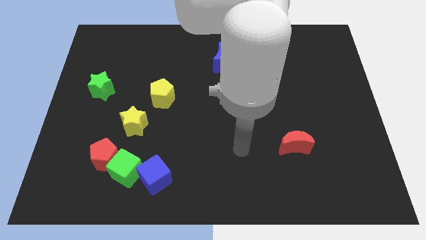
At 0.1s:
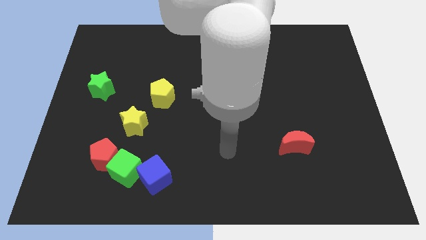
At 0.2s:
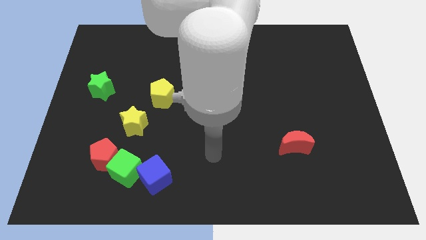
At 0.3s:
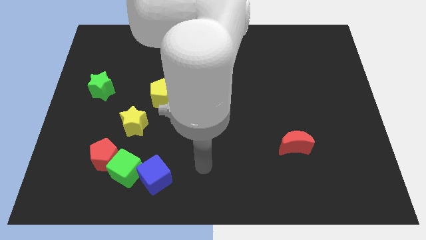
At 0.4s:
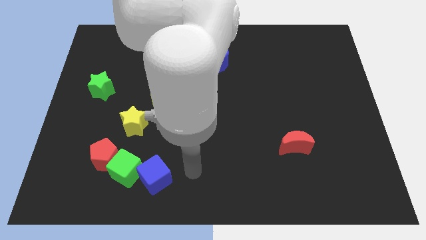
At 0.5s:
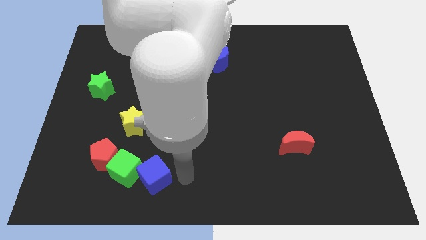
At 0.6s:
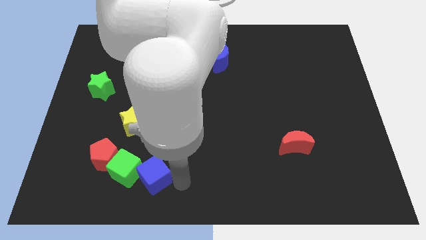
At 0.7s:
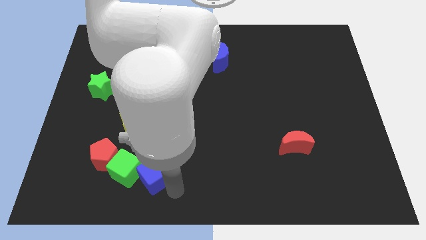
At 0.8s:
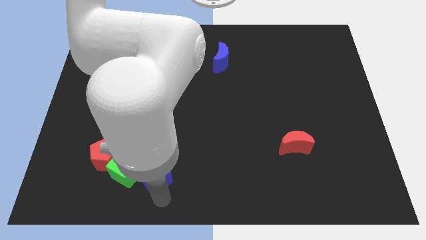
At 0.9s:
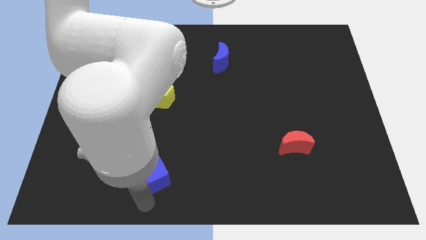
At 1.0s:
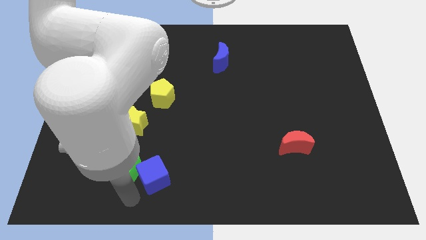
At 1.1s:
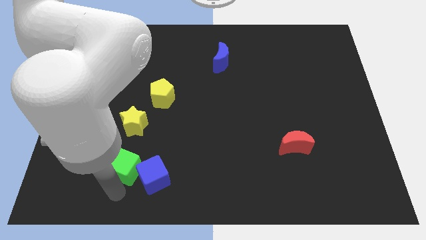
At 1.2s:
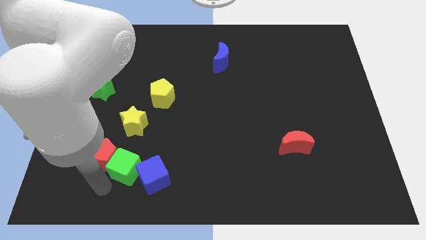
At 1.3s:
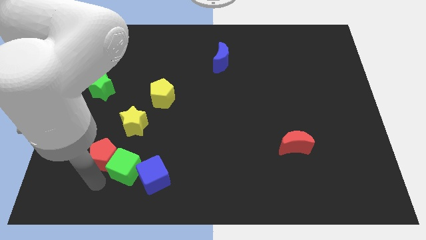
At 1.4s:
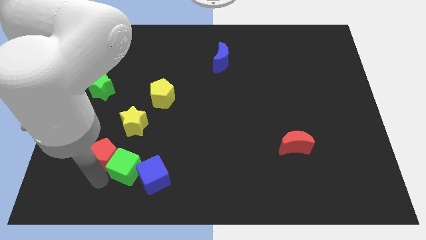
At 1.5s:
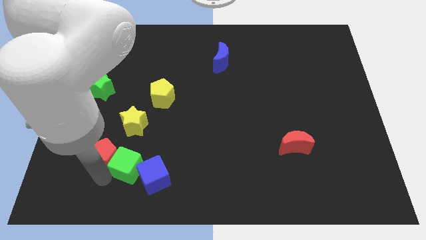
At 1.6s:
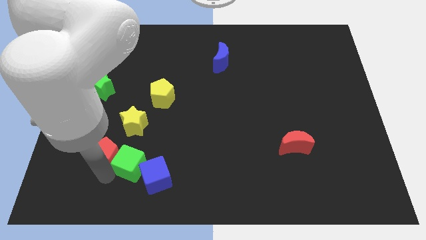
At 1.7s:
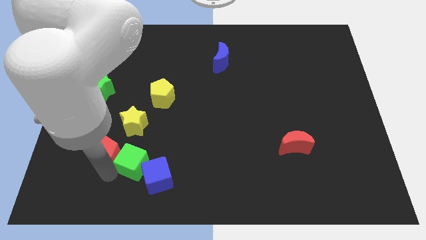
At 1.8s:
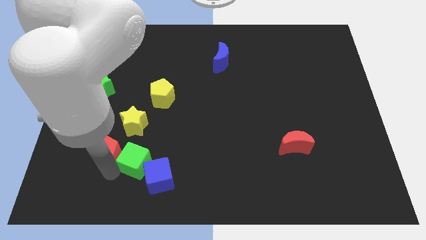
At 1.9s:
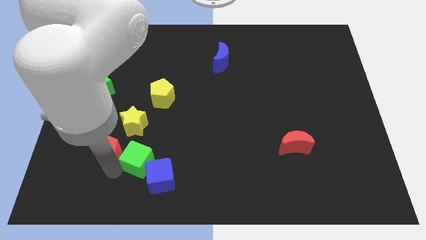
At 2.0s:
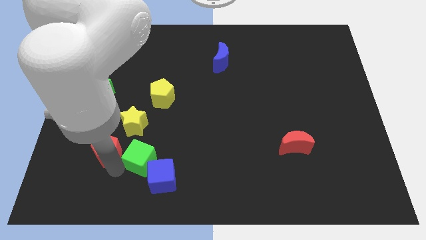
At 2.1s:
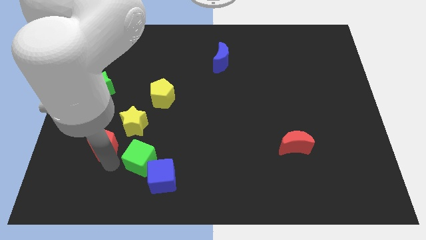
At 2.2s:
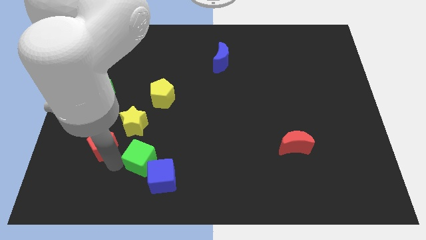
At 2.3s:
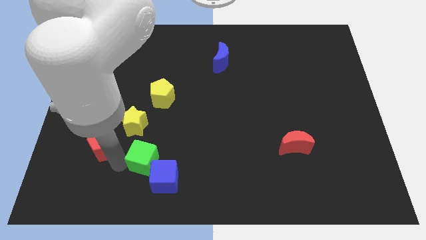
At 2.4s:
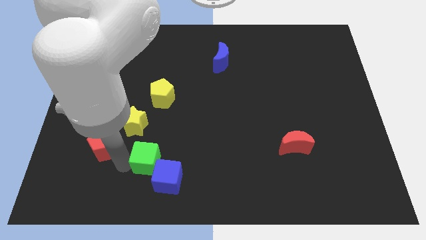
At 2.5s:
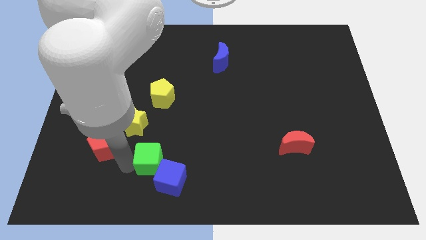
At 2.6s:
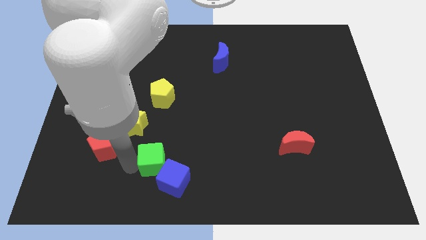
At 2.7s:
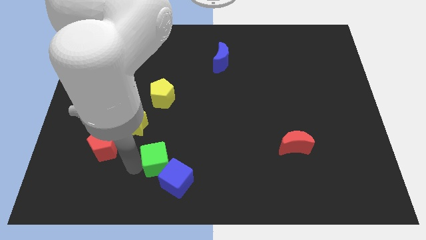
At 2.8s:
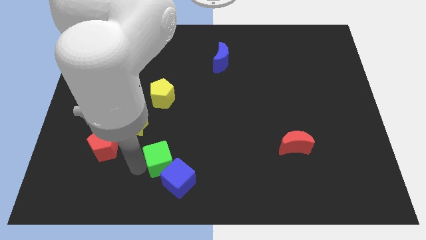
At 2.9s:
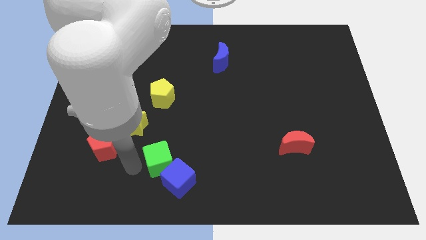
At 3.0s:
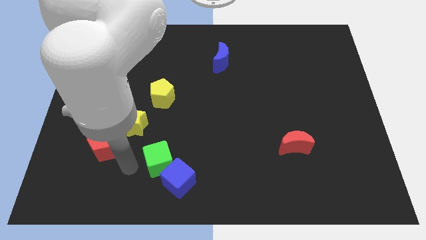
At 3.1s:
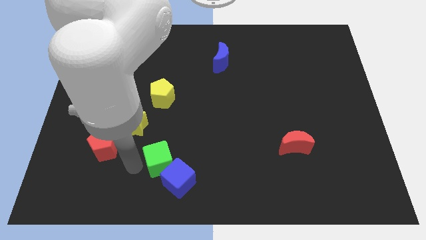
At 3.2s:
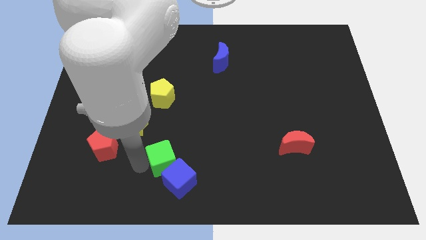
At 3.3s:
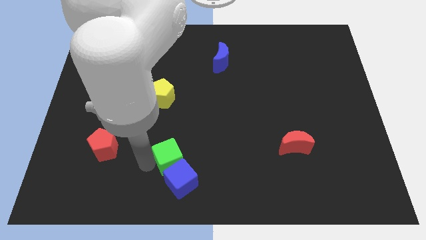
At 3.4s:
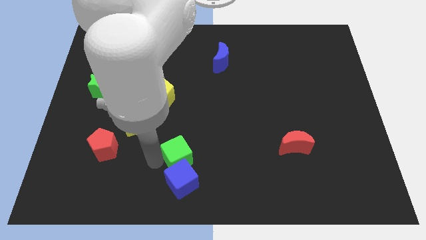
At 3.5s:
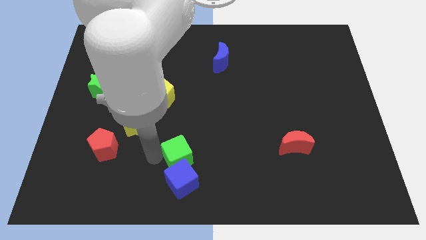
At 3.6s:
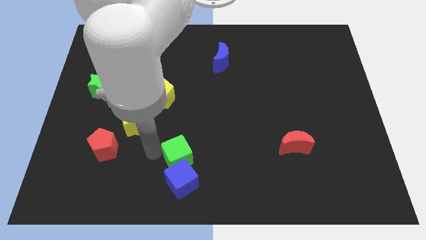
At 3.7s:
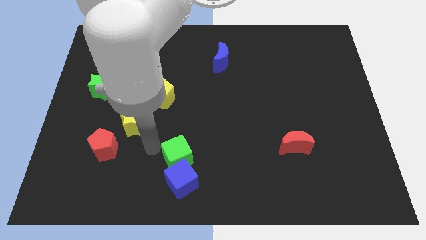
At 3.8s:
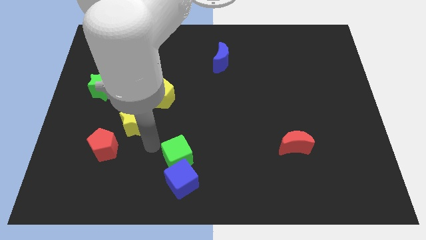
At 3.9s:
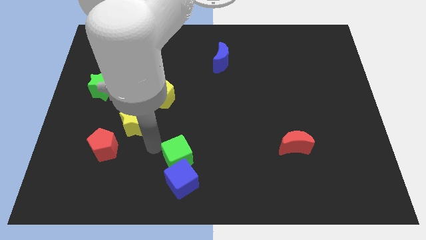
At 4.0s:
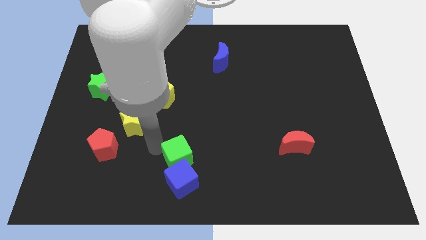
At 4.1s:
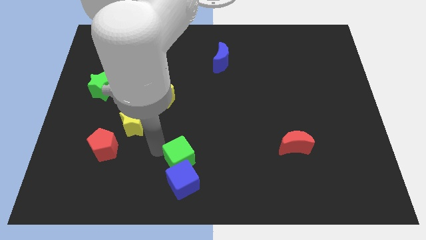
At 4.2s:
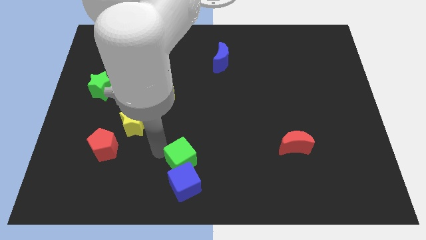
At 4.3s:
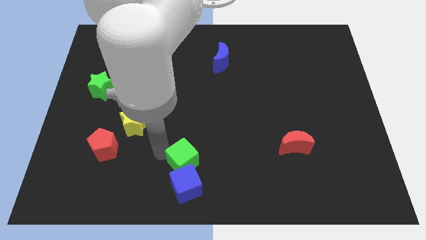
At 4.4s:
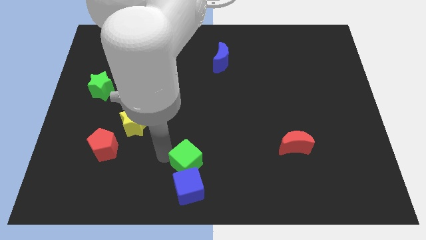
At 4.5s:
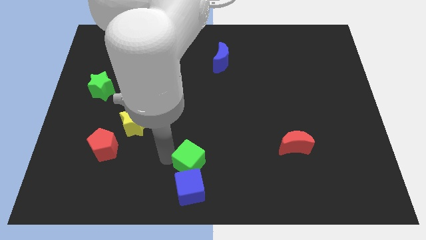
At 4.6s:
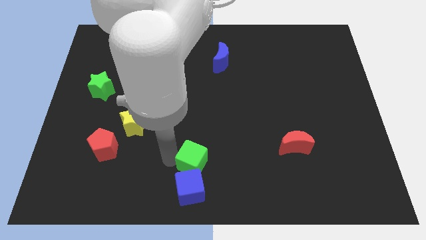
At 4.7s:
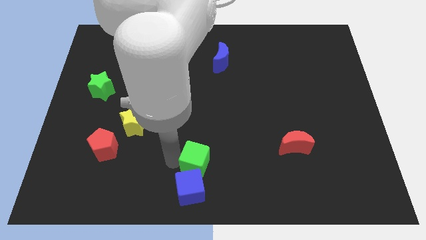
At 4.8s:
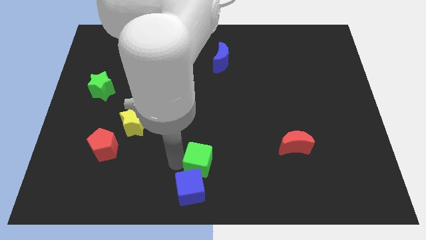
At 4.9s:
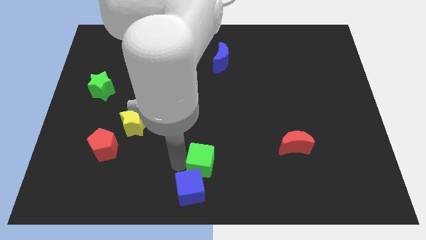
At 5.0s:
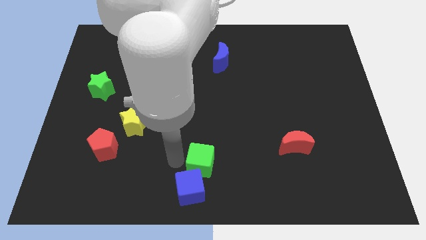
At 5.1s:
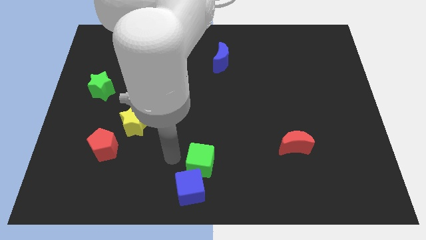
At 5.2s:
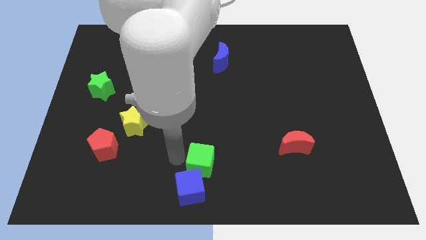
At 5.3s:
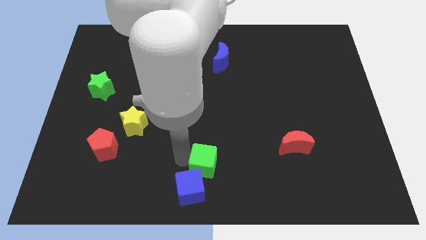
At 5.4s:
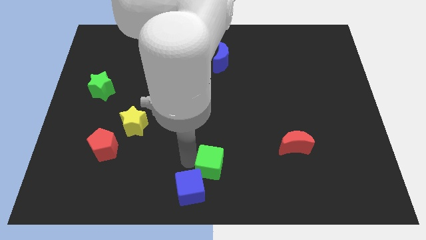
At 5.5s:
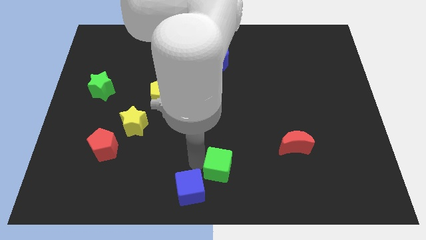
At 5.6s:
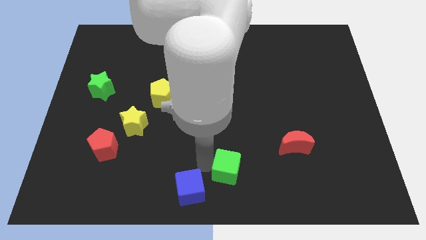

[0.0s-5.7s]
push the green cube right

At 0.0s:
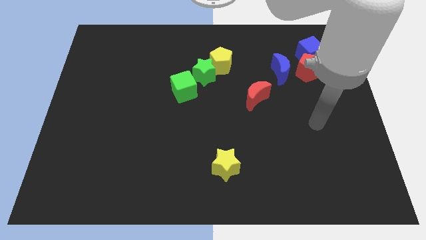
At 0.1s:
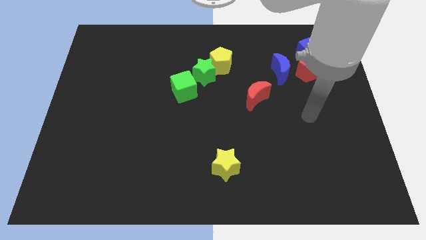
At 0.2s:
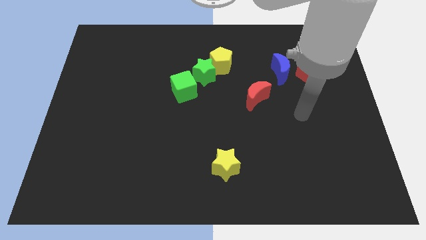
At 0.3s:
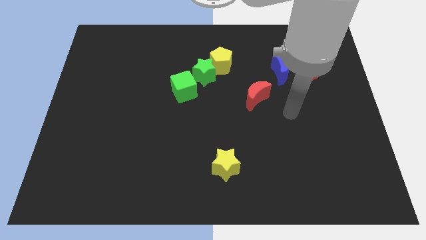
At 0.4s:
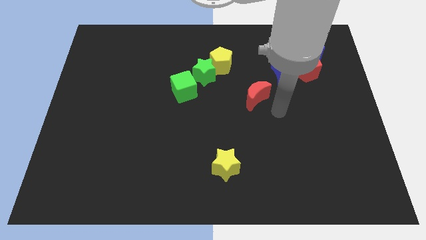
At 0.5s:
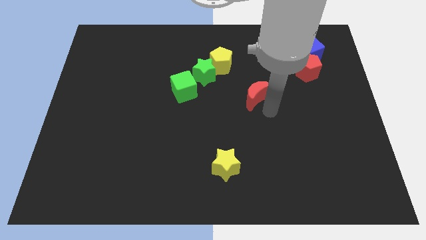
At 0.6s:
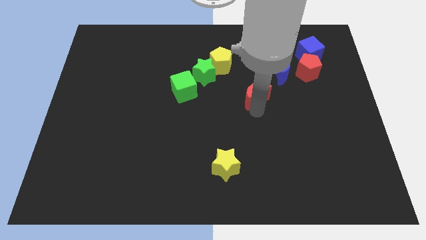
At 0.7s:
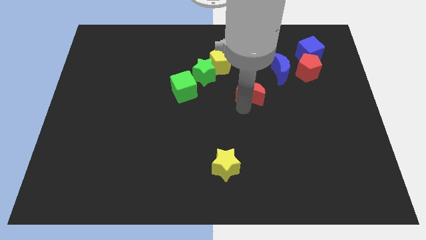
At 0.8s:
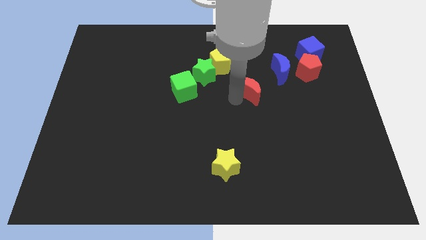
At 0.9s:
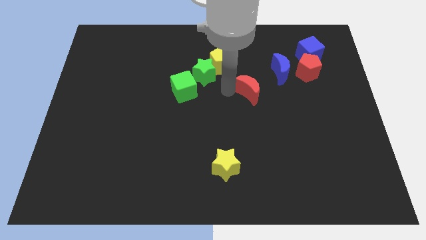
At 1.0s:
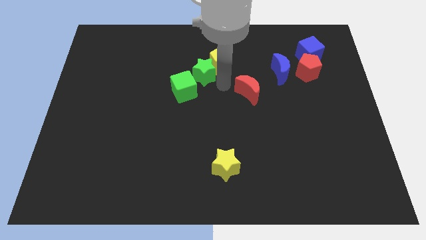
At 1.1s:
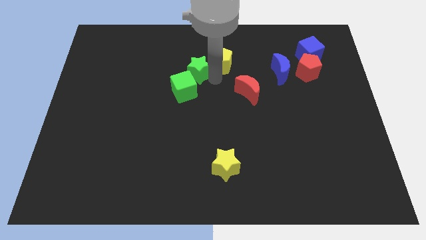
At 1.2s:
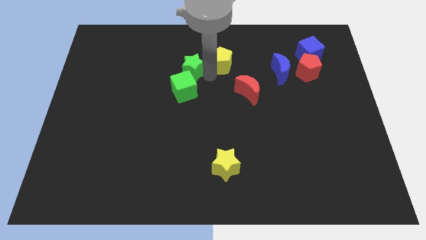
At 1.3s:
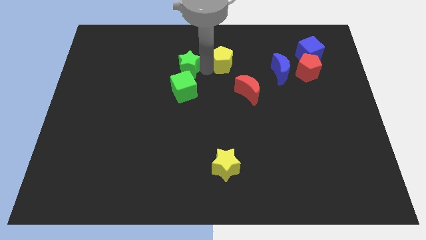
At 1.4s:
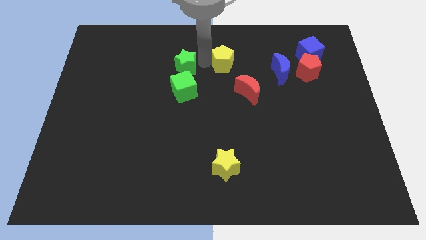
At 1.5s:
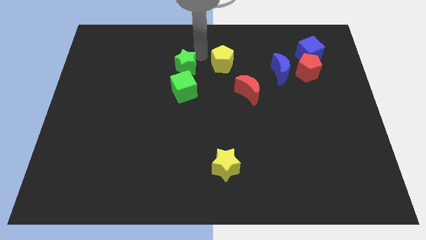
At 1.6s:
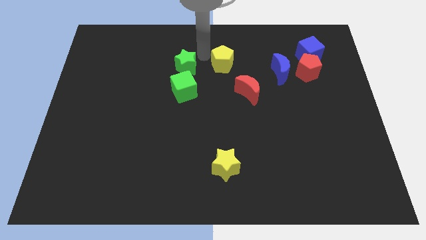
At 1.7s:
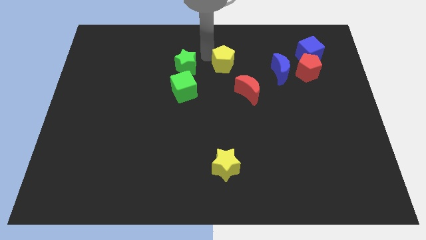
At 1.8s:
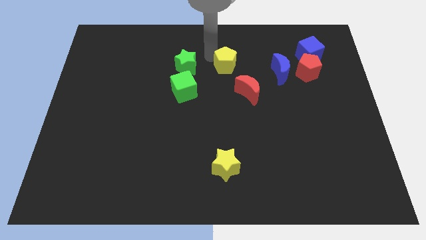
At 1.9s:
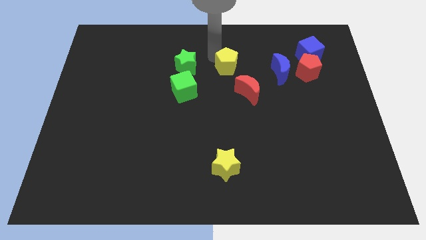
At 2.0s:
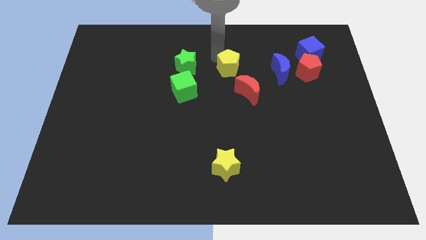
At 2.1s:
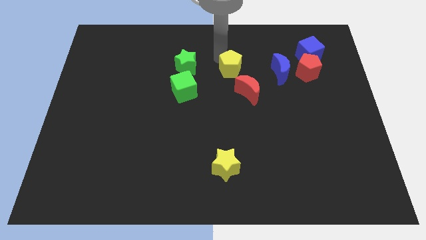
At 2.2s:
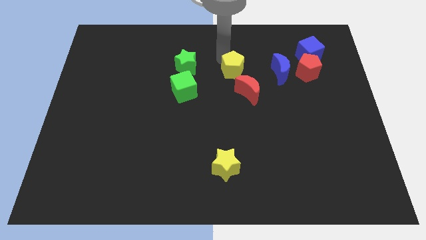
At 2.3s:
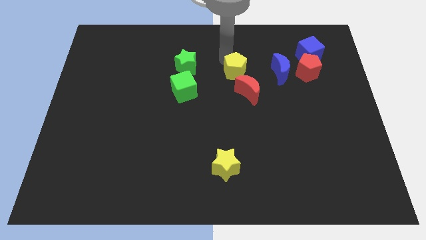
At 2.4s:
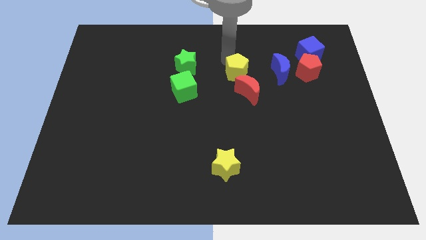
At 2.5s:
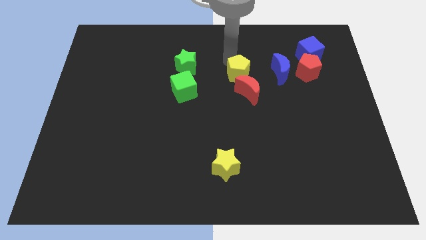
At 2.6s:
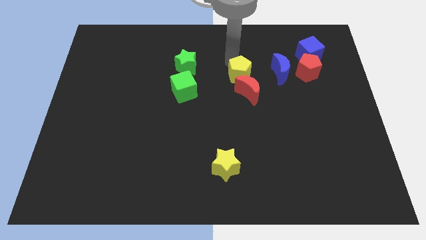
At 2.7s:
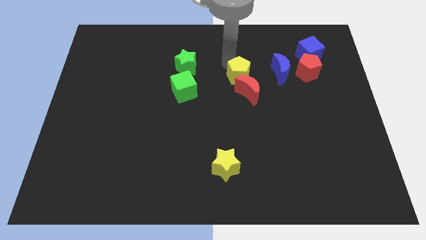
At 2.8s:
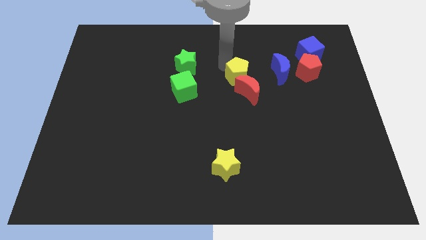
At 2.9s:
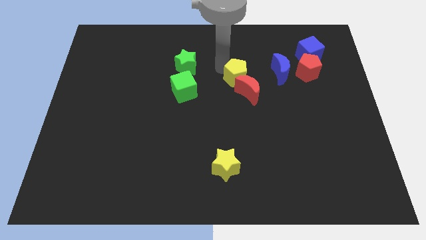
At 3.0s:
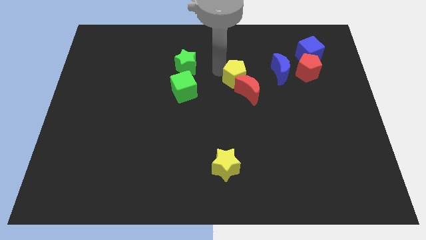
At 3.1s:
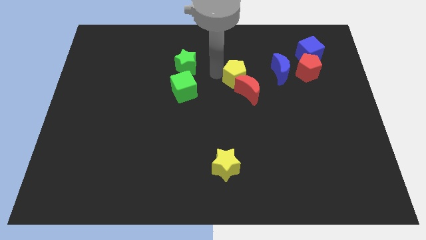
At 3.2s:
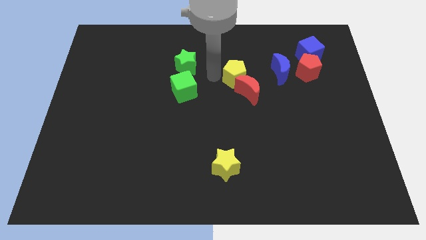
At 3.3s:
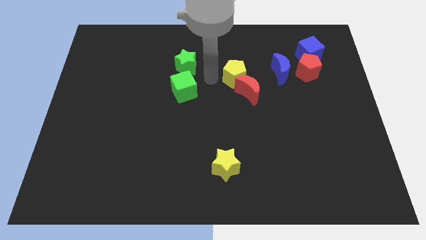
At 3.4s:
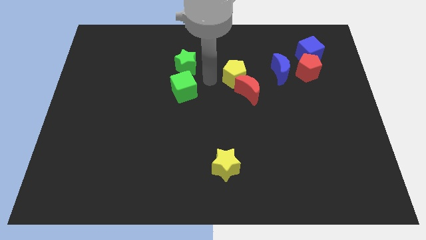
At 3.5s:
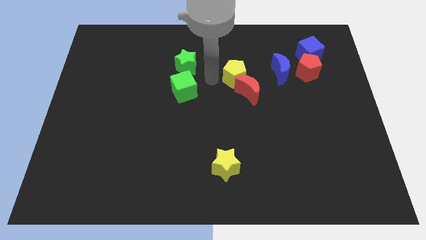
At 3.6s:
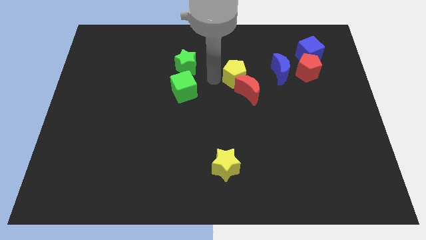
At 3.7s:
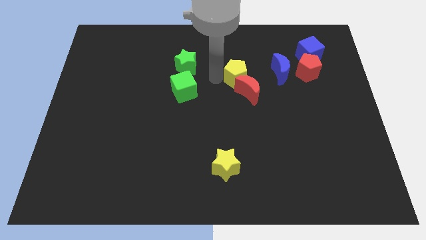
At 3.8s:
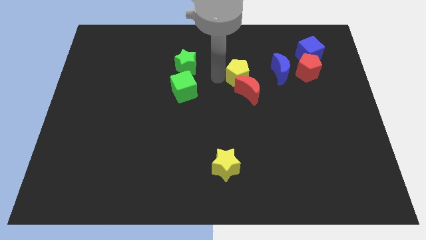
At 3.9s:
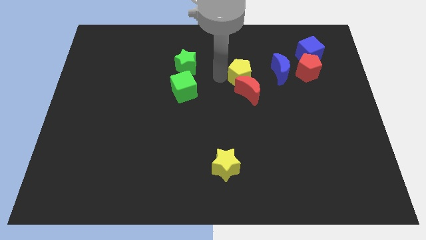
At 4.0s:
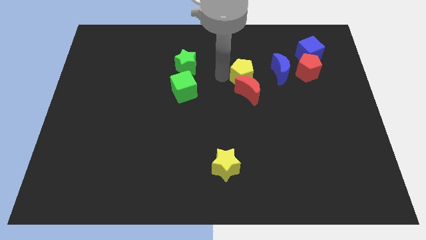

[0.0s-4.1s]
slightly push the yellow pentagon diagonally downwards and right
